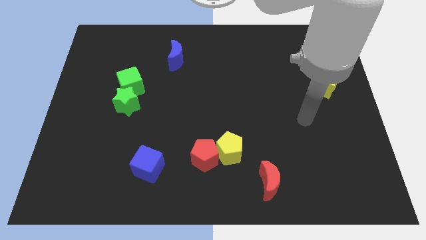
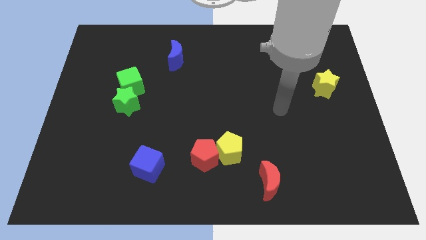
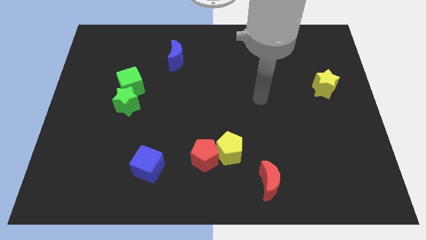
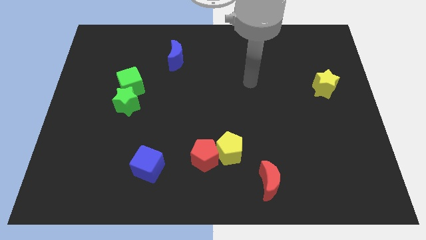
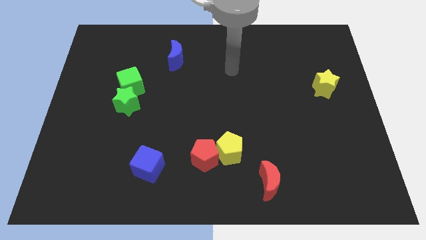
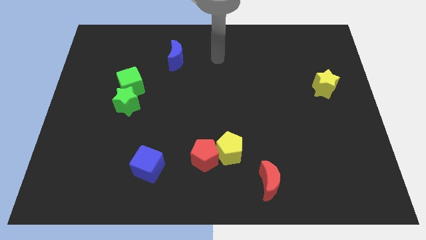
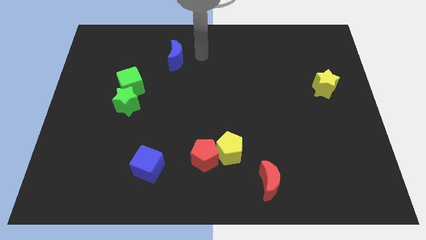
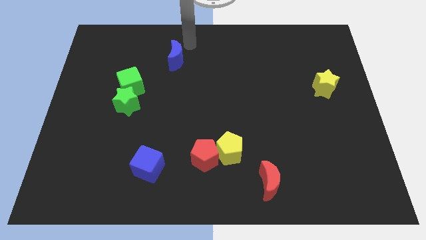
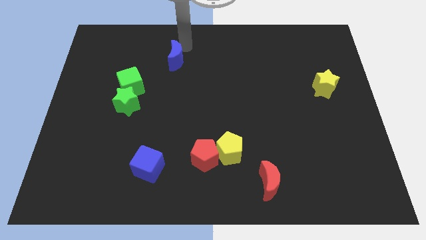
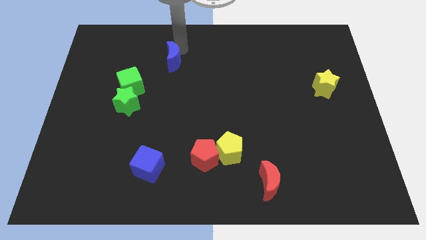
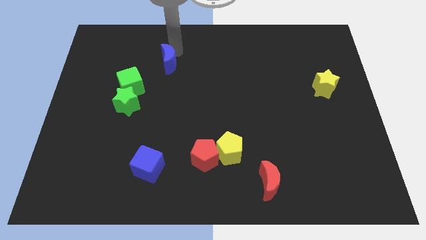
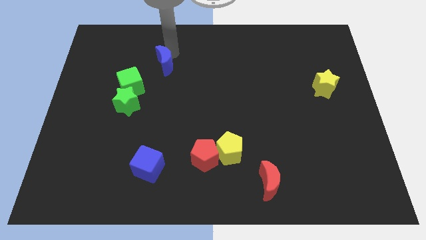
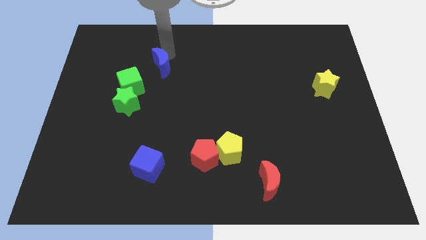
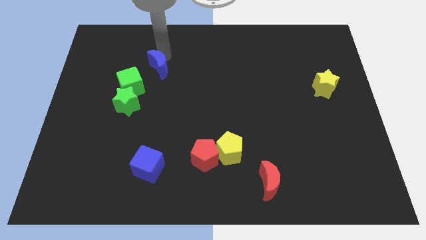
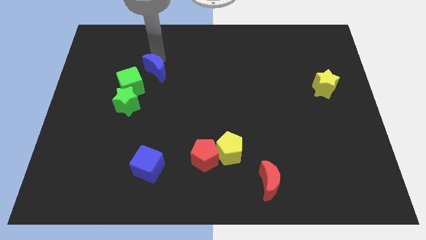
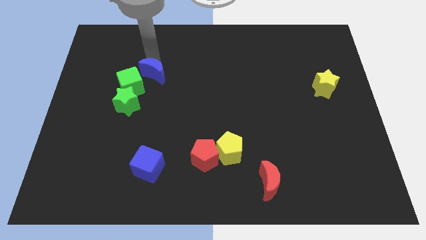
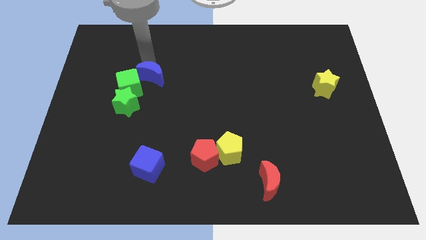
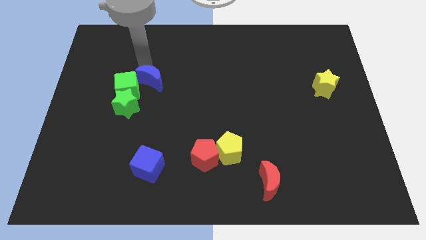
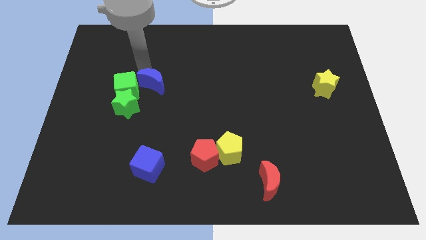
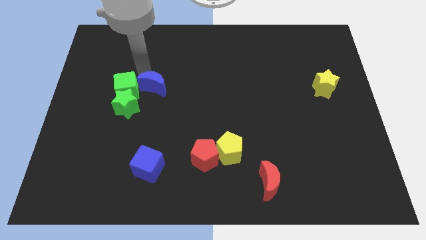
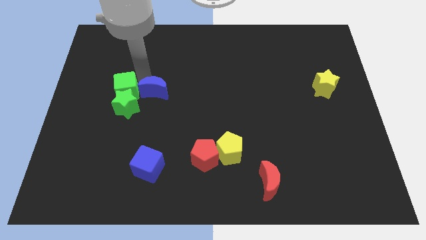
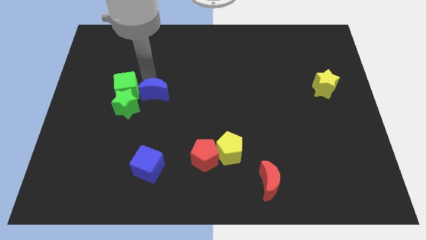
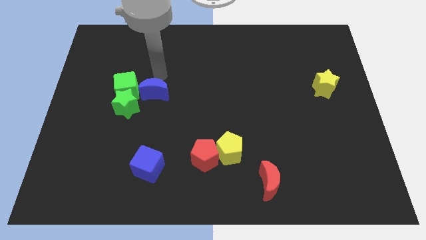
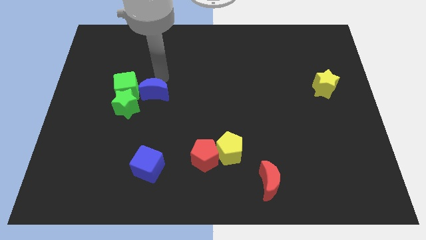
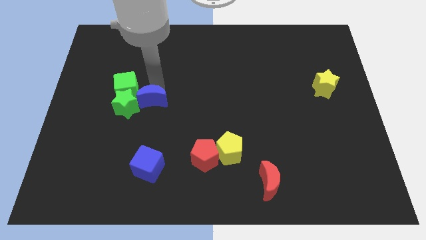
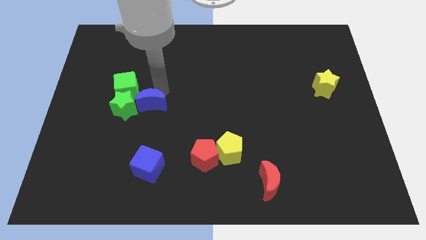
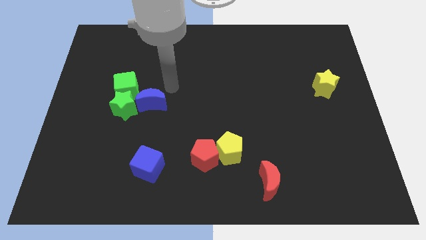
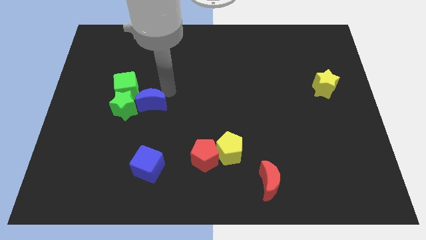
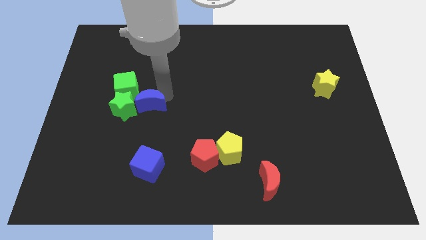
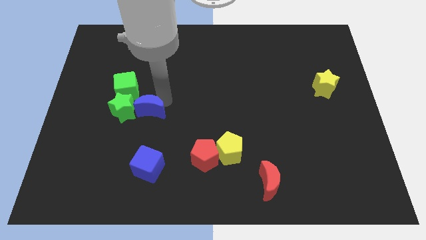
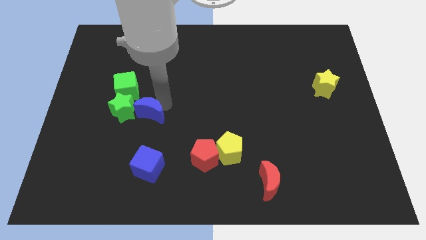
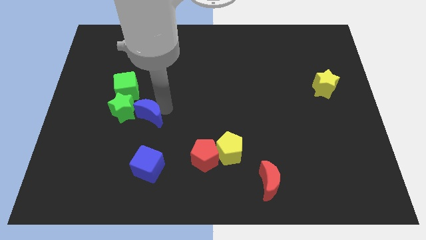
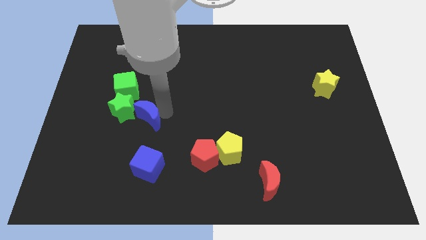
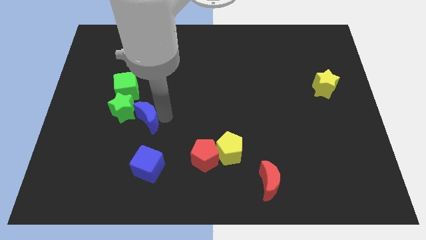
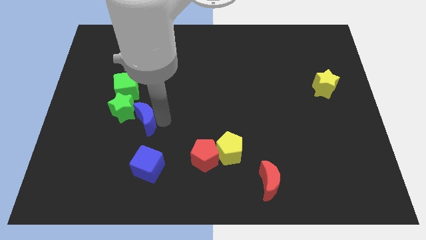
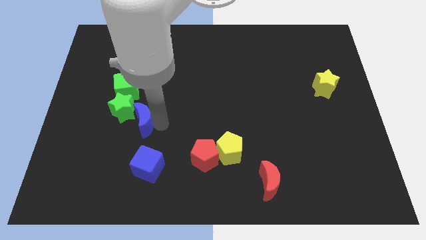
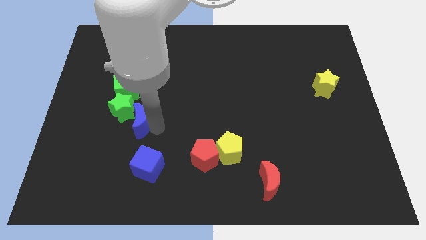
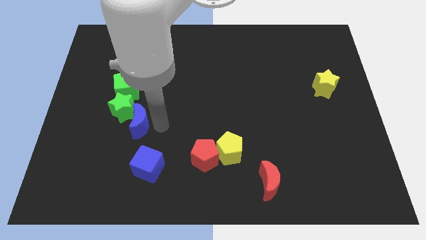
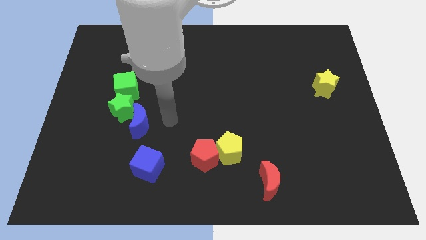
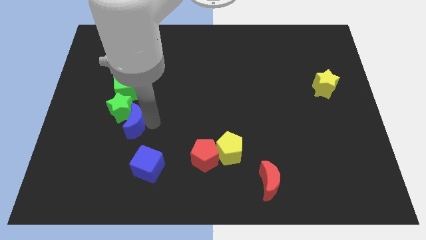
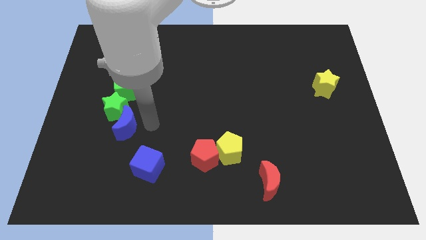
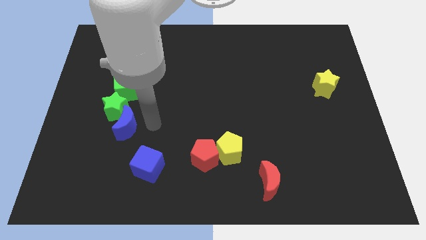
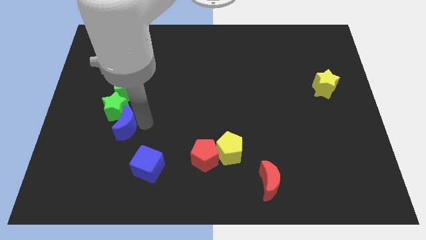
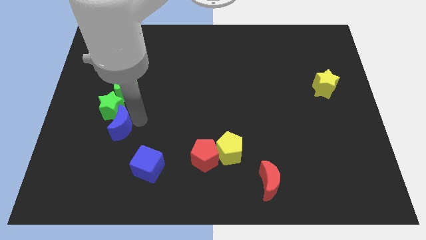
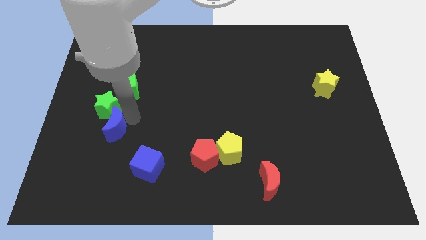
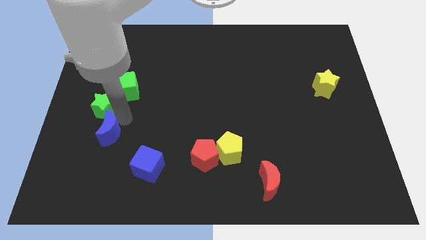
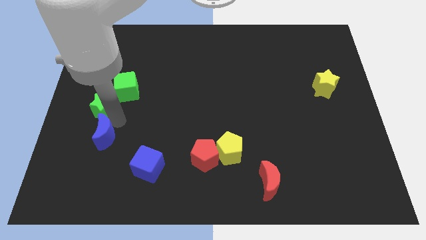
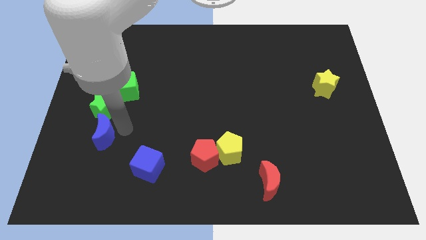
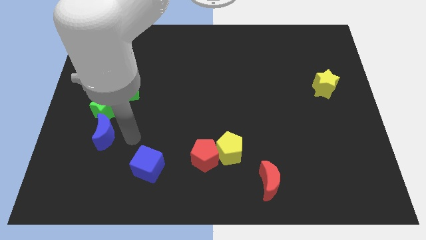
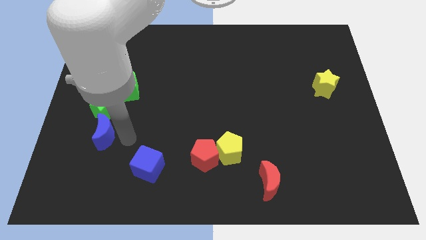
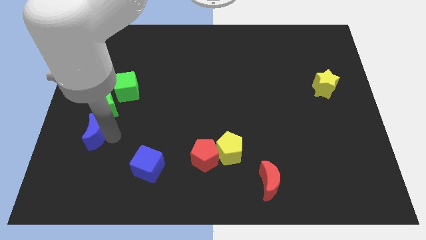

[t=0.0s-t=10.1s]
slide the blue moon to the bottom left of the green star

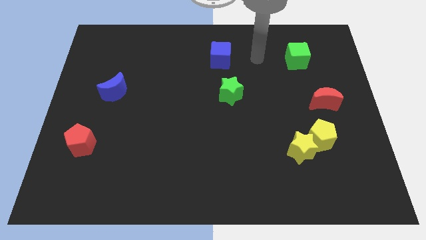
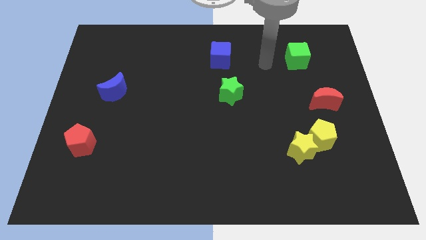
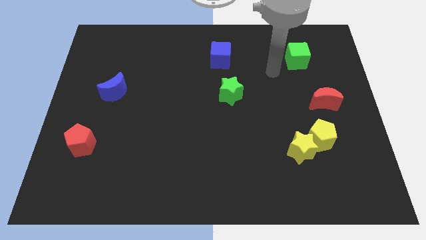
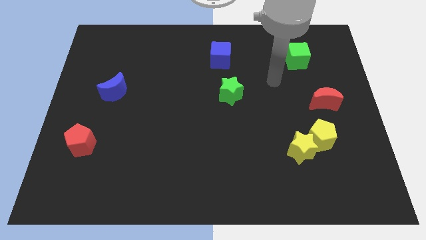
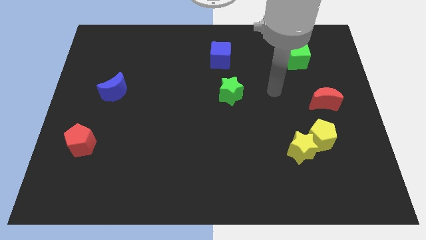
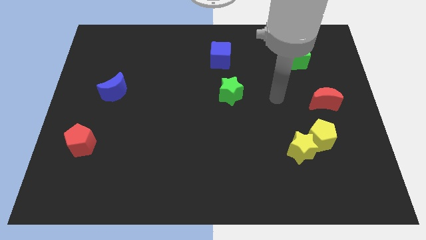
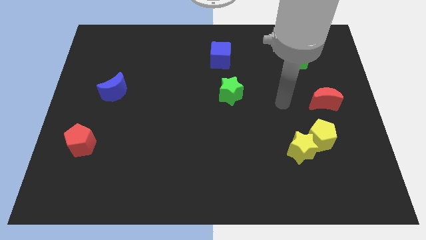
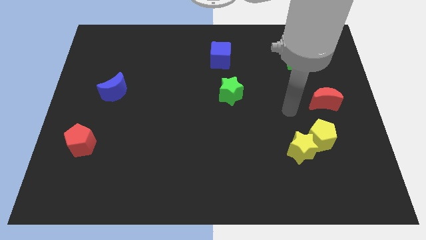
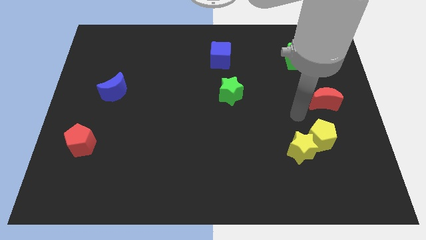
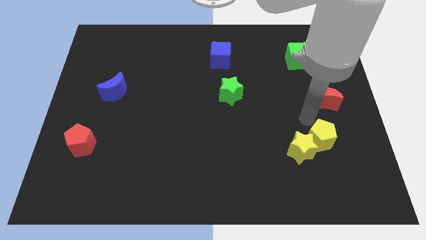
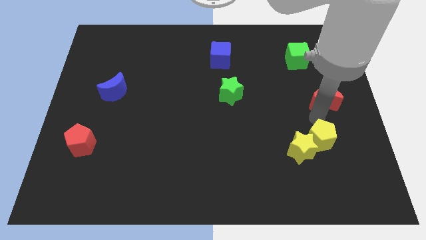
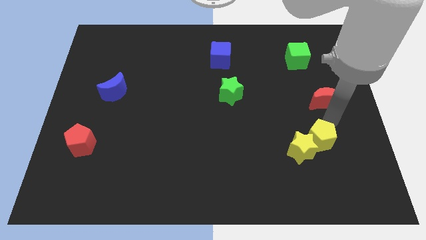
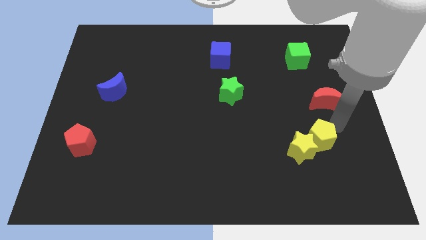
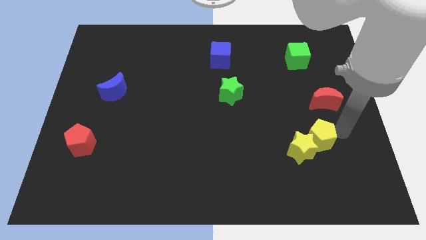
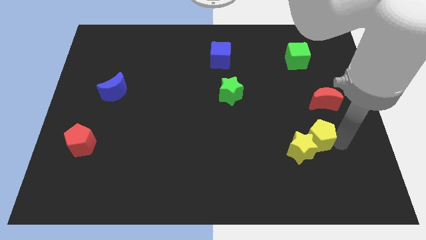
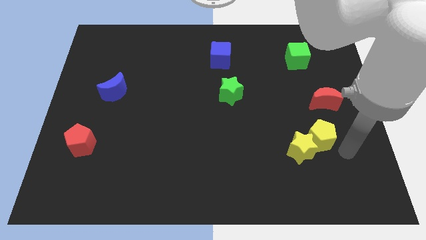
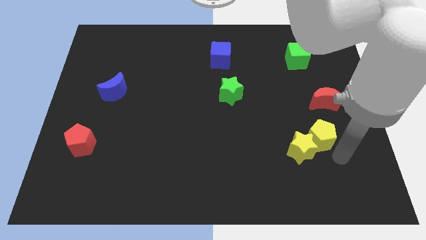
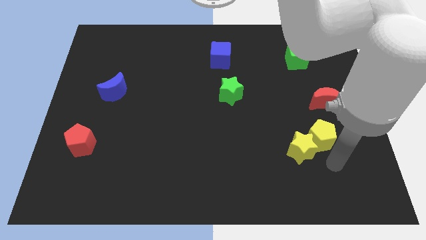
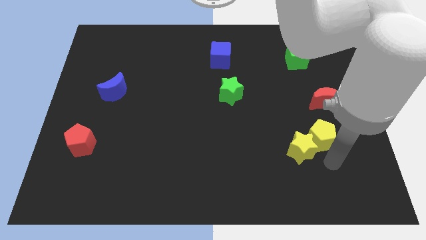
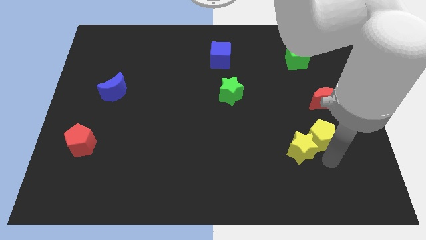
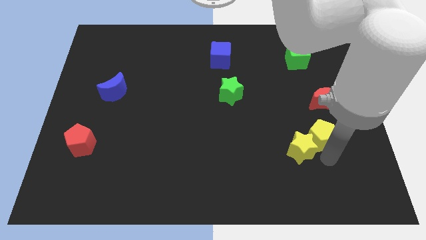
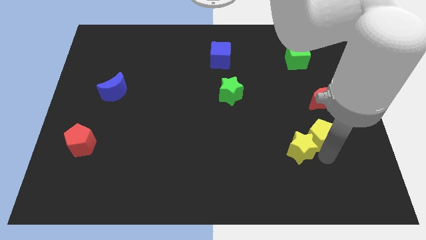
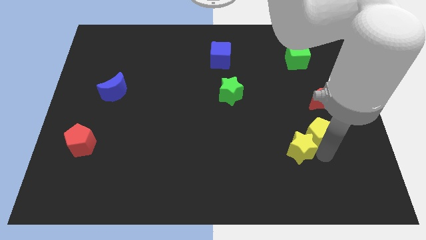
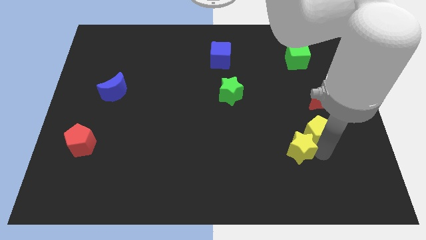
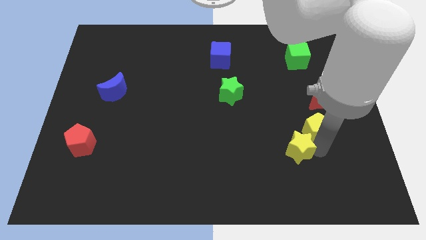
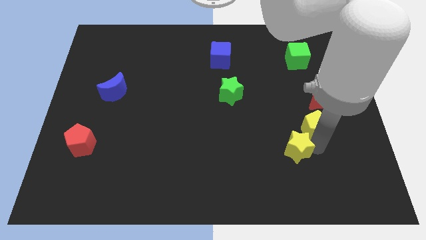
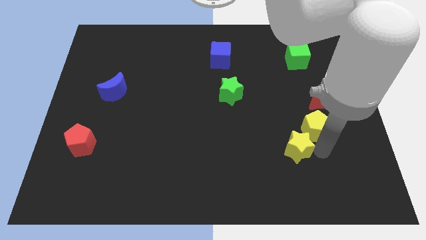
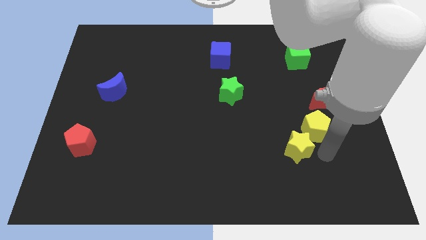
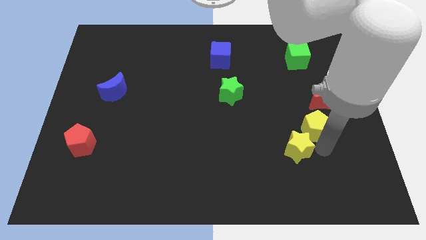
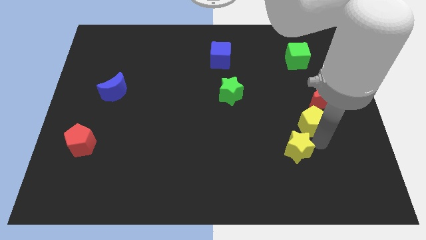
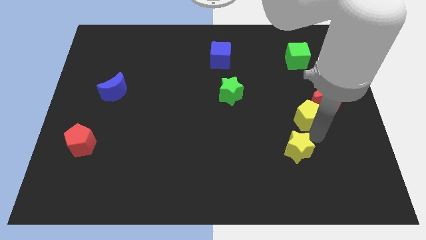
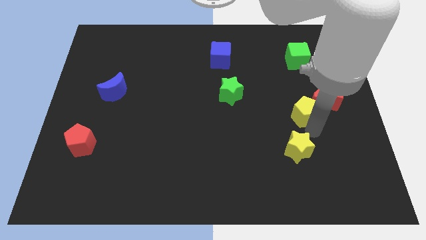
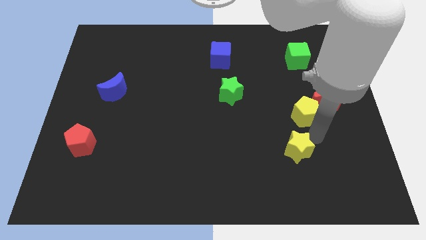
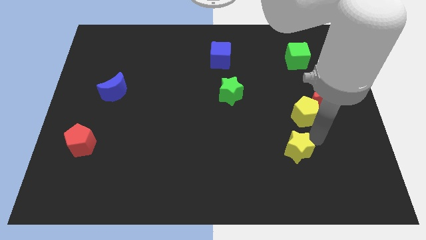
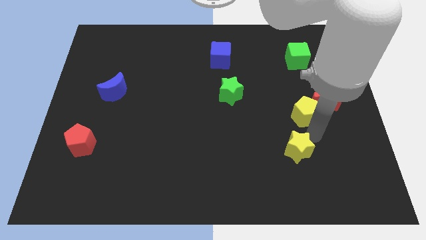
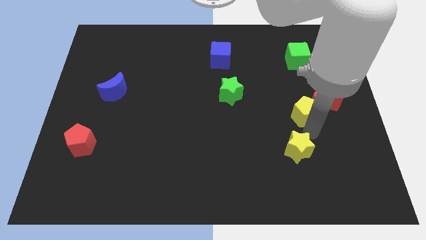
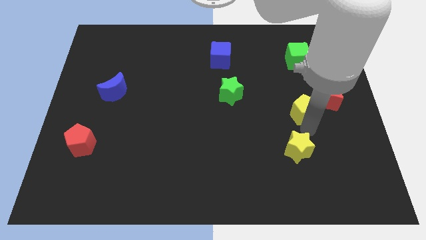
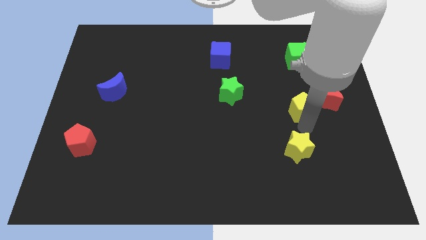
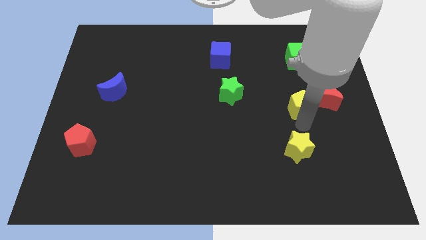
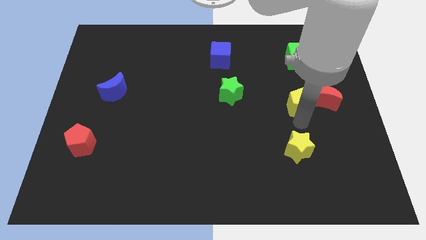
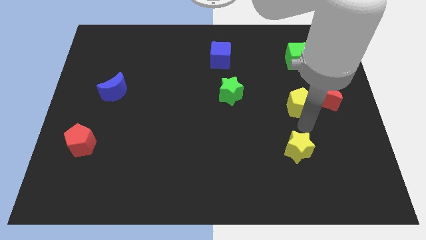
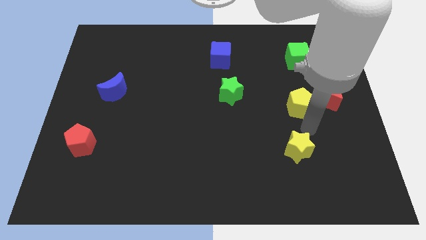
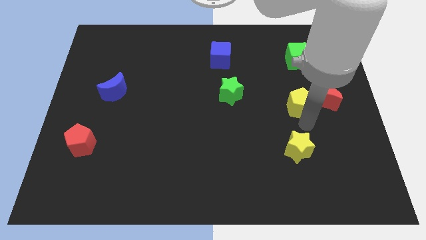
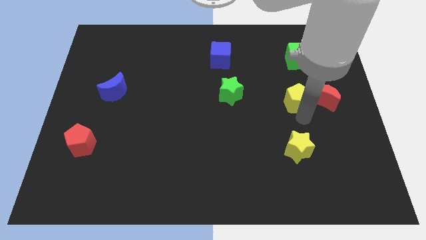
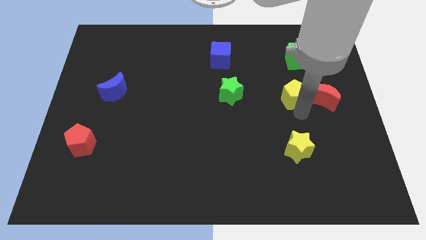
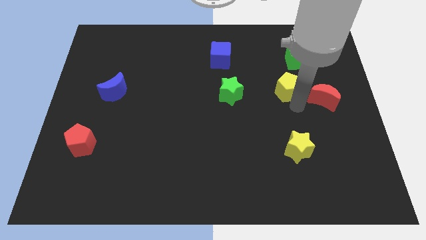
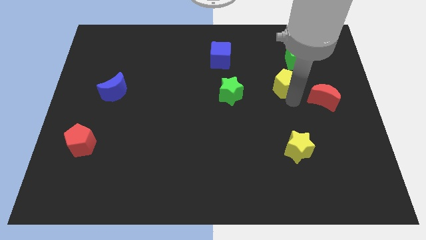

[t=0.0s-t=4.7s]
put the yellow pentagon diagonally down and to the left of the green cube
